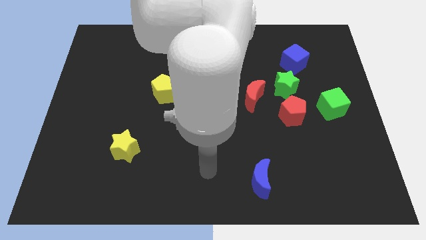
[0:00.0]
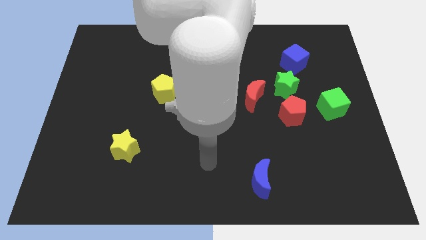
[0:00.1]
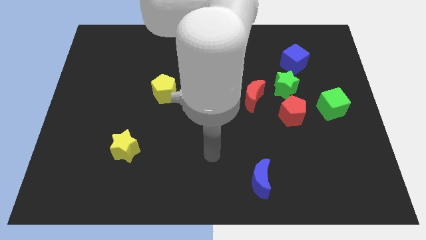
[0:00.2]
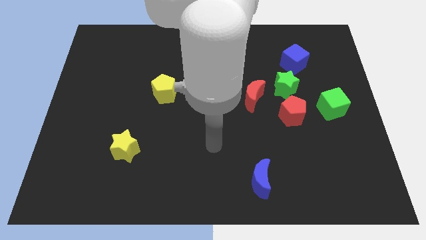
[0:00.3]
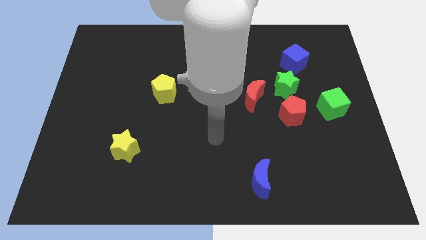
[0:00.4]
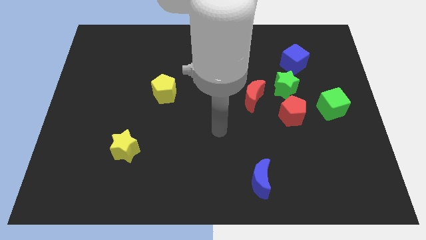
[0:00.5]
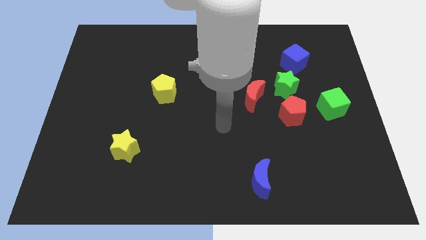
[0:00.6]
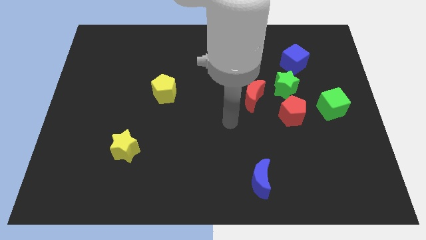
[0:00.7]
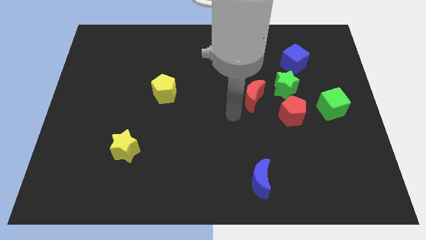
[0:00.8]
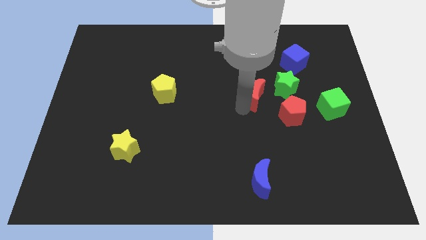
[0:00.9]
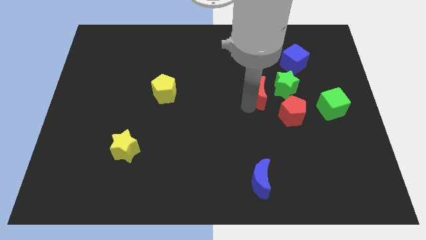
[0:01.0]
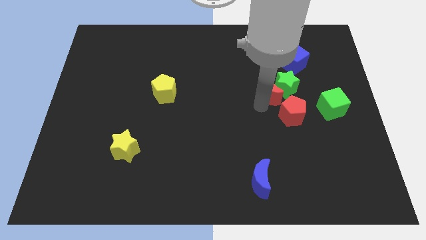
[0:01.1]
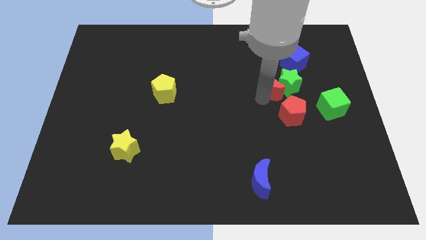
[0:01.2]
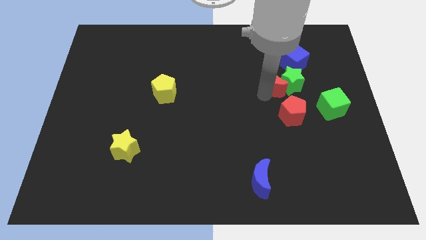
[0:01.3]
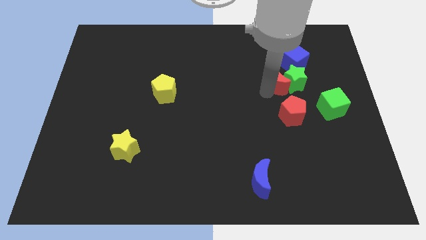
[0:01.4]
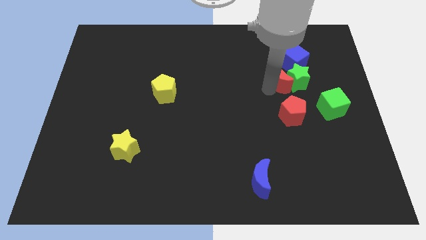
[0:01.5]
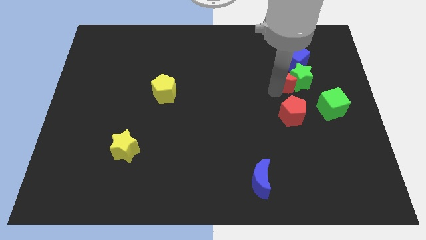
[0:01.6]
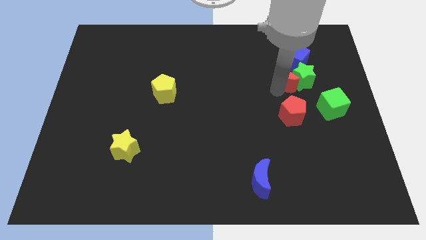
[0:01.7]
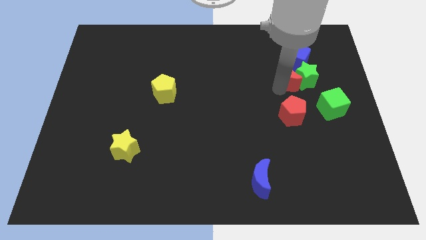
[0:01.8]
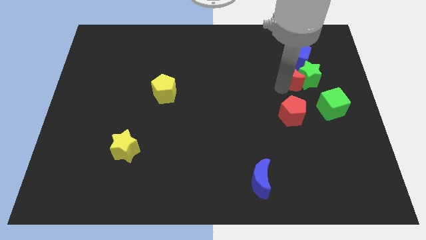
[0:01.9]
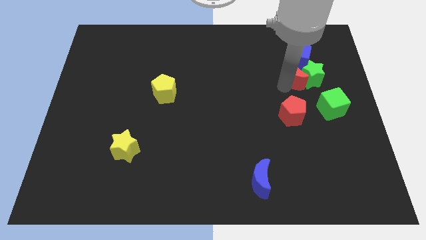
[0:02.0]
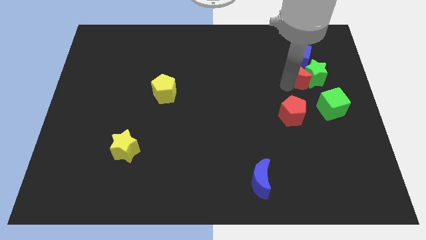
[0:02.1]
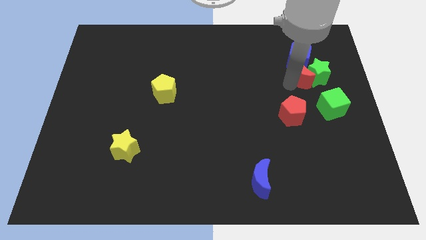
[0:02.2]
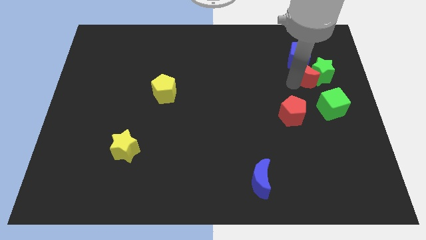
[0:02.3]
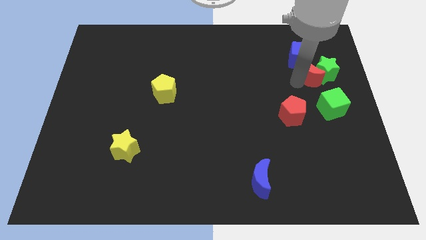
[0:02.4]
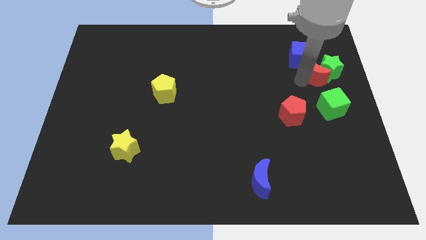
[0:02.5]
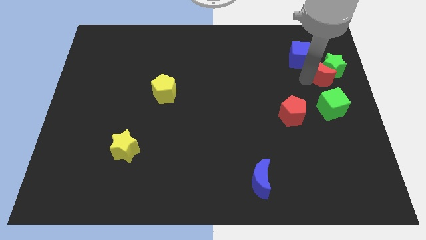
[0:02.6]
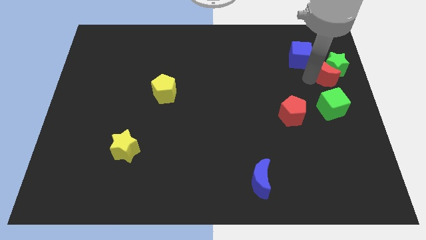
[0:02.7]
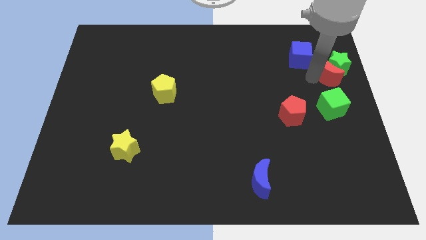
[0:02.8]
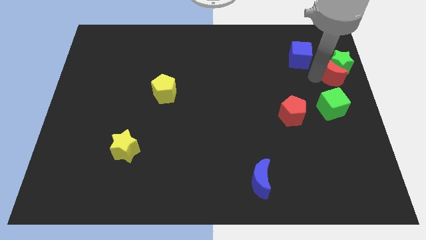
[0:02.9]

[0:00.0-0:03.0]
pull the green star apart from the red pentagon, red moon, and blue cube

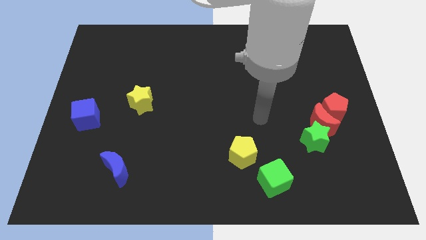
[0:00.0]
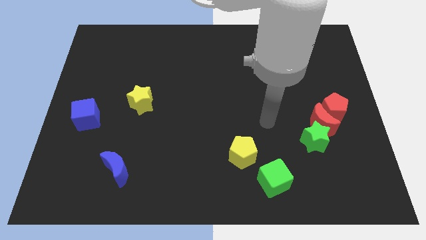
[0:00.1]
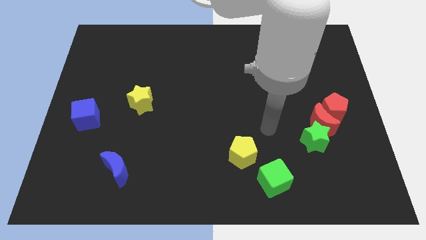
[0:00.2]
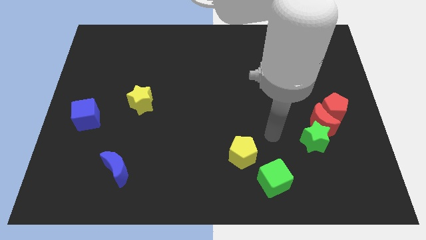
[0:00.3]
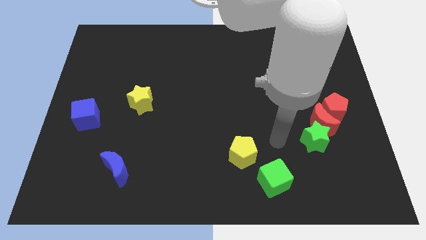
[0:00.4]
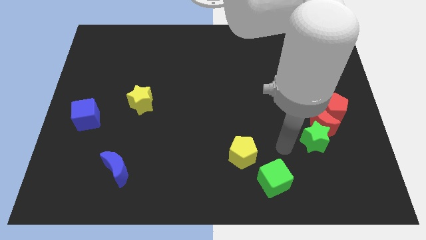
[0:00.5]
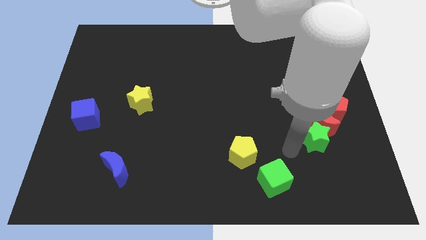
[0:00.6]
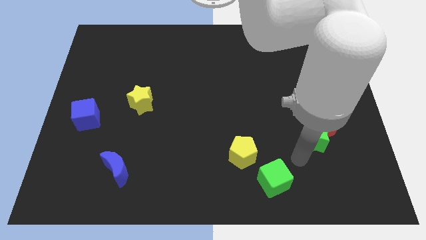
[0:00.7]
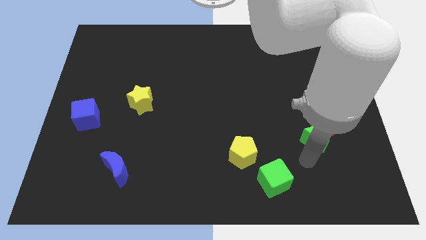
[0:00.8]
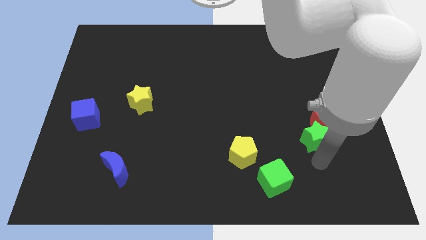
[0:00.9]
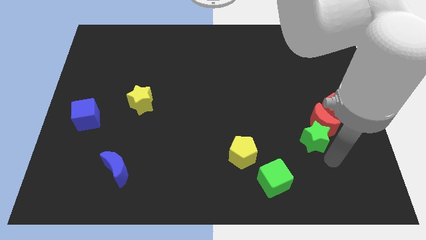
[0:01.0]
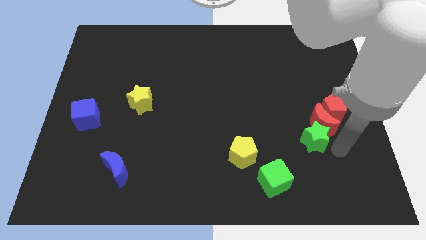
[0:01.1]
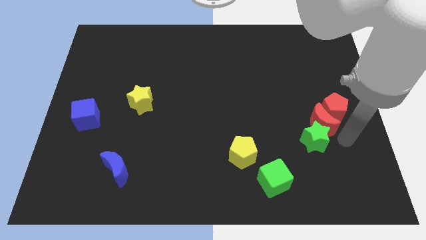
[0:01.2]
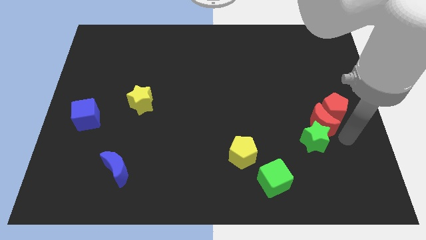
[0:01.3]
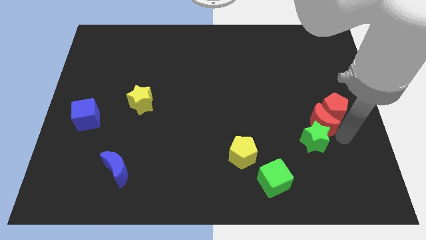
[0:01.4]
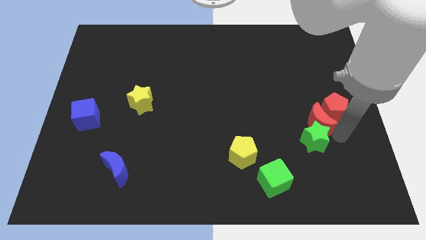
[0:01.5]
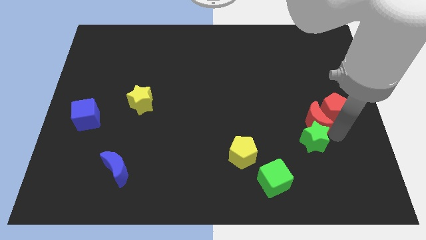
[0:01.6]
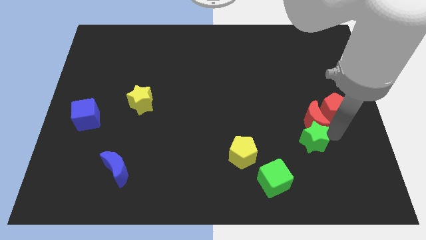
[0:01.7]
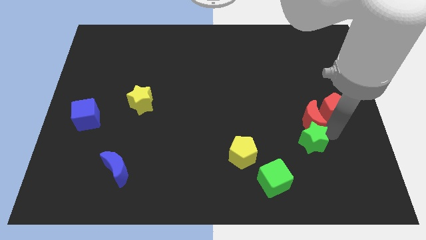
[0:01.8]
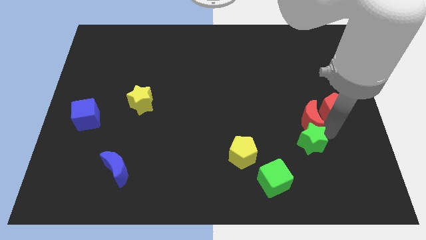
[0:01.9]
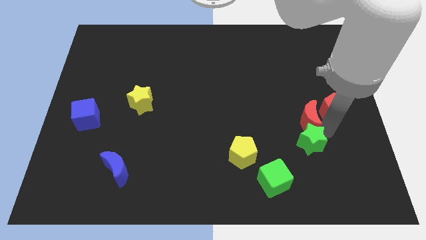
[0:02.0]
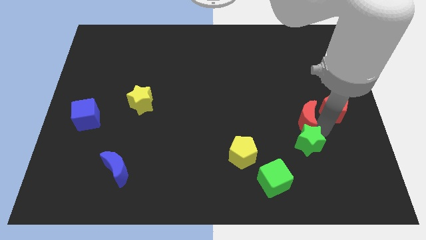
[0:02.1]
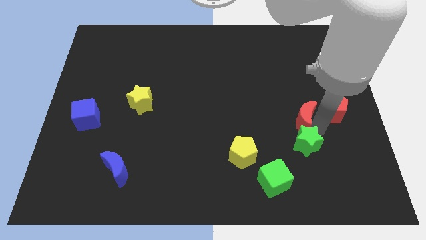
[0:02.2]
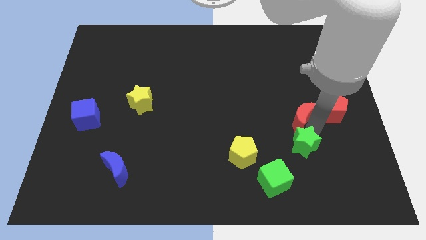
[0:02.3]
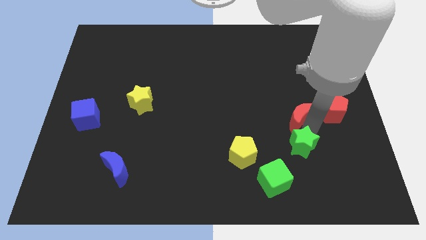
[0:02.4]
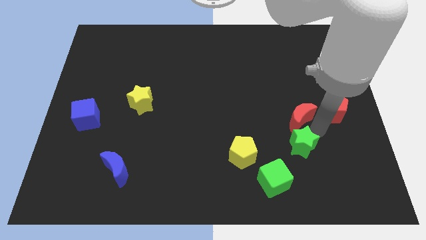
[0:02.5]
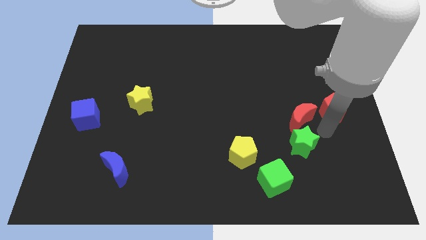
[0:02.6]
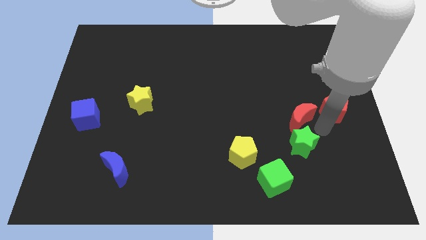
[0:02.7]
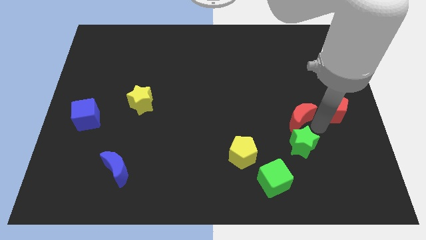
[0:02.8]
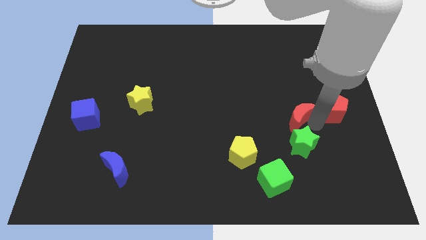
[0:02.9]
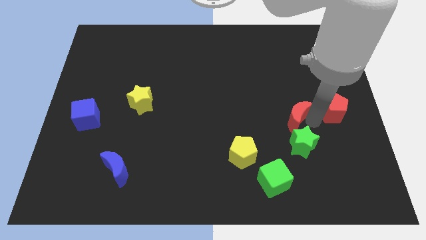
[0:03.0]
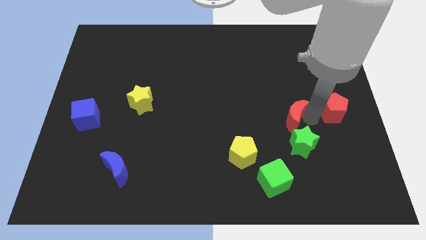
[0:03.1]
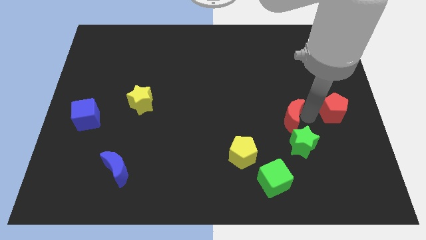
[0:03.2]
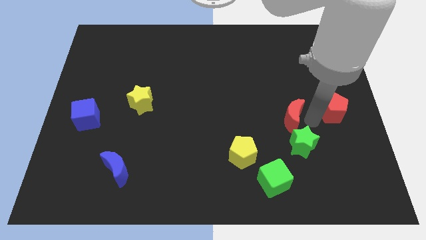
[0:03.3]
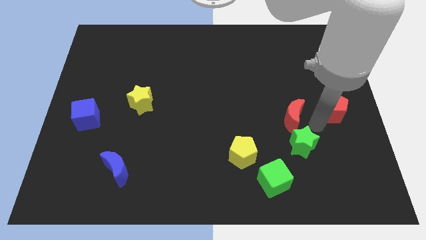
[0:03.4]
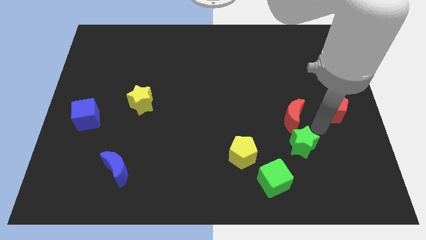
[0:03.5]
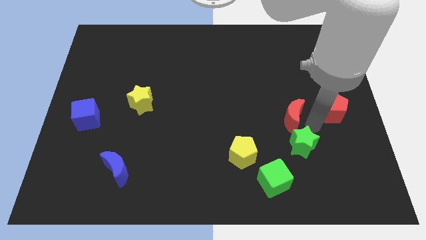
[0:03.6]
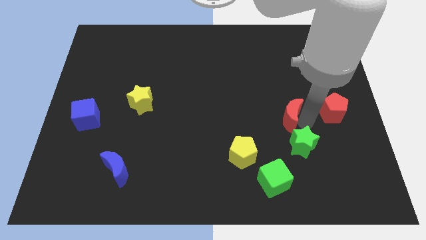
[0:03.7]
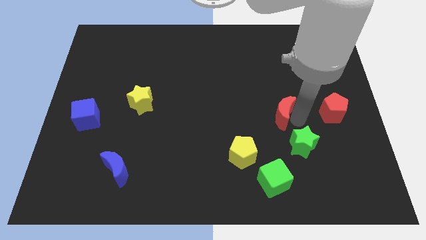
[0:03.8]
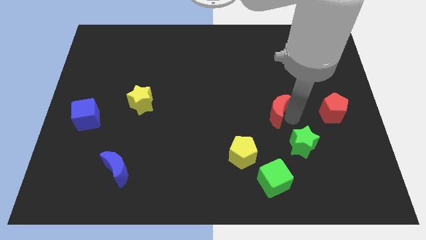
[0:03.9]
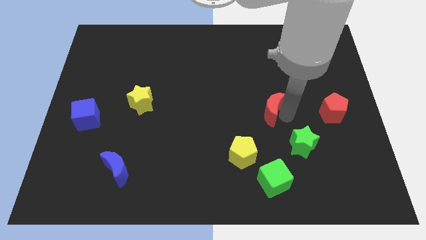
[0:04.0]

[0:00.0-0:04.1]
separate the red moon from the red pentagon and green star

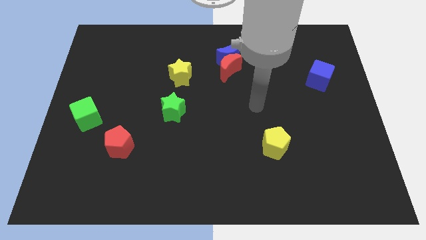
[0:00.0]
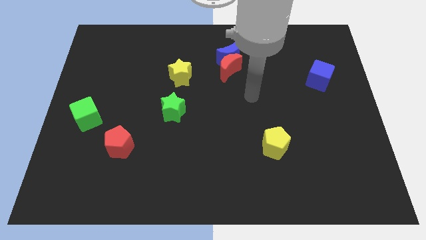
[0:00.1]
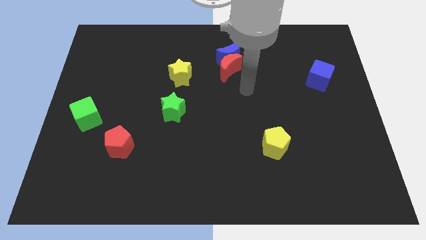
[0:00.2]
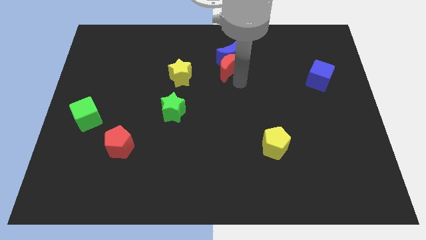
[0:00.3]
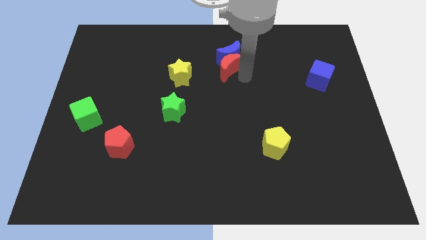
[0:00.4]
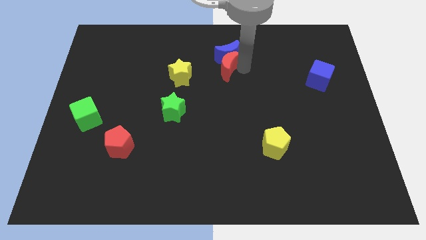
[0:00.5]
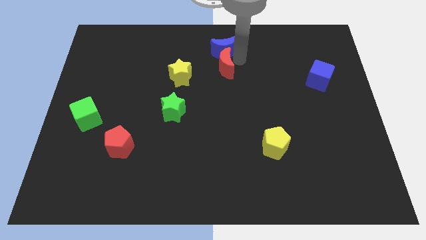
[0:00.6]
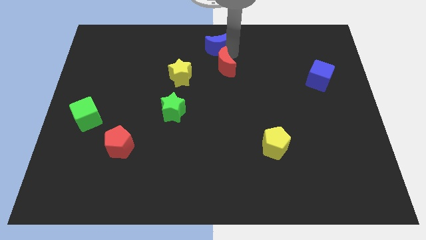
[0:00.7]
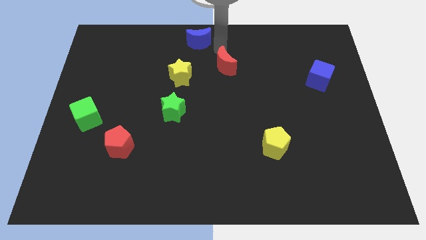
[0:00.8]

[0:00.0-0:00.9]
separate the red moon from the blue moon

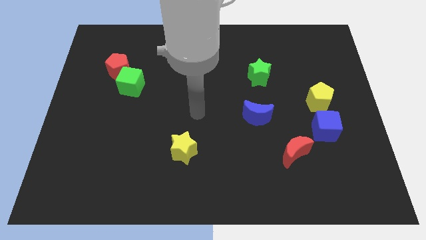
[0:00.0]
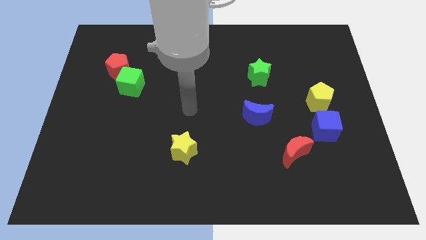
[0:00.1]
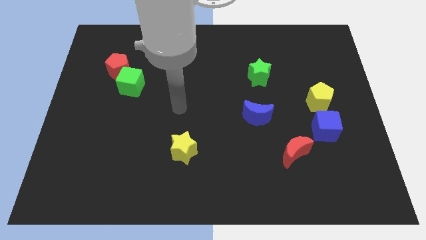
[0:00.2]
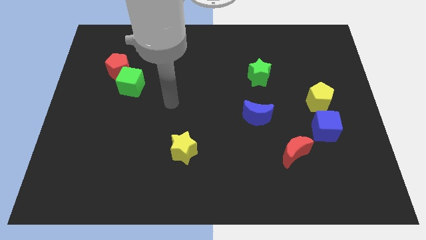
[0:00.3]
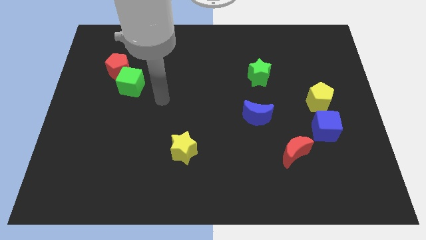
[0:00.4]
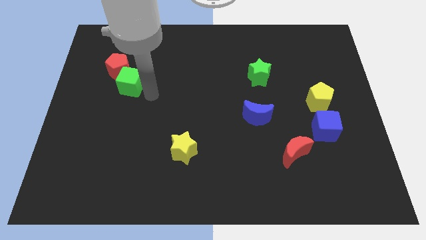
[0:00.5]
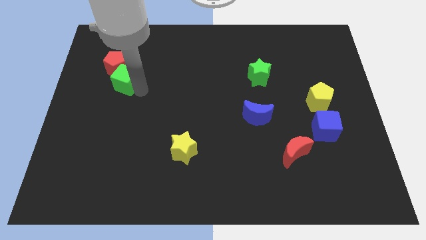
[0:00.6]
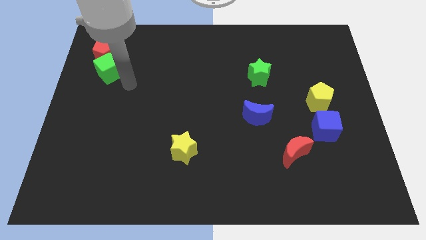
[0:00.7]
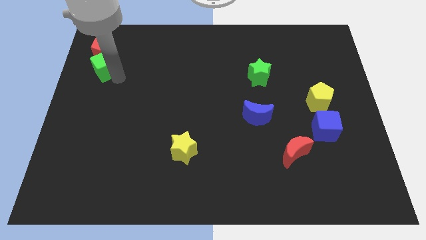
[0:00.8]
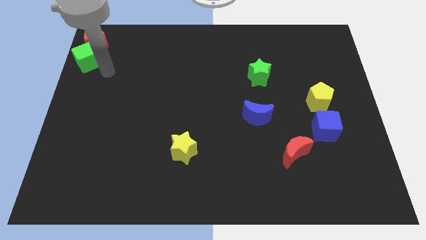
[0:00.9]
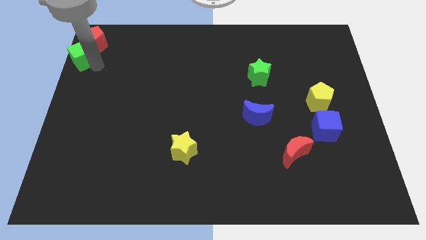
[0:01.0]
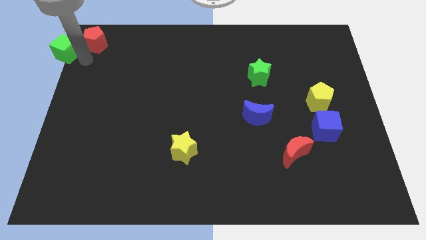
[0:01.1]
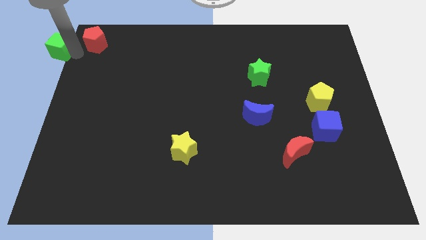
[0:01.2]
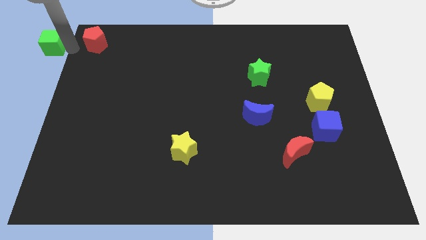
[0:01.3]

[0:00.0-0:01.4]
pull the red pentagon apart from the green cube

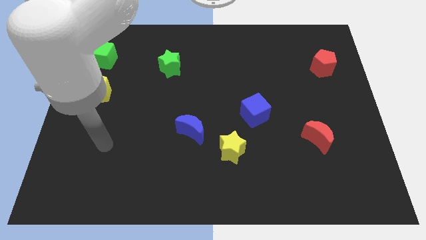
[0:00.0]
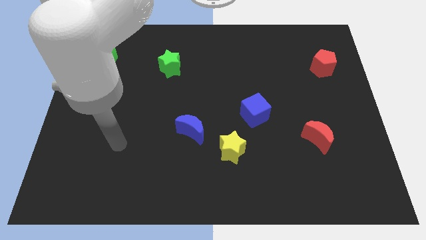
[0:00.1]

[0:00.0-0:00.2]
separate the blue moon from the yellow star
